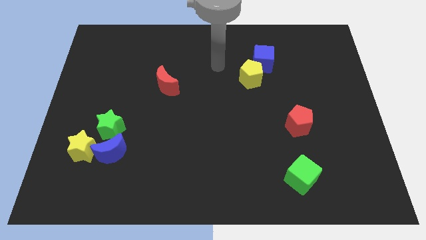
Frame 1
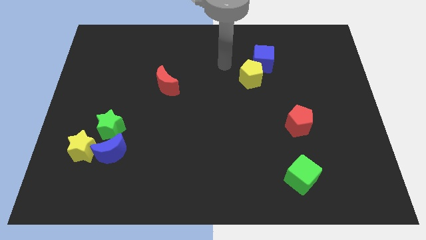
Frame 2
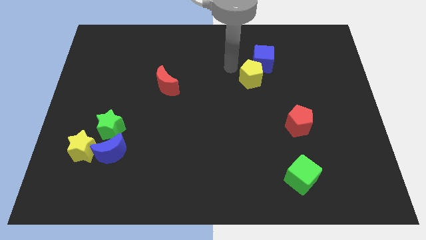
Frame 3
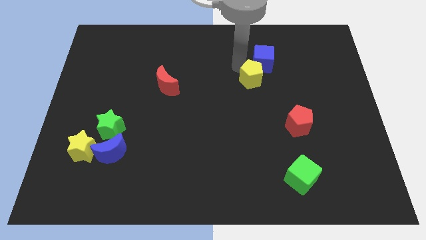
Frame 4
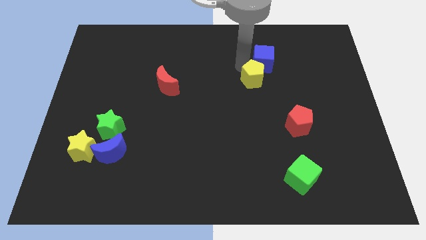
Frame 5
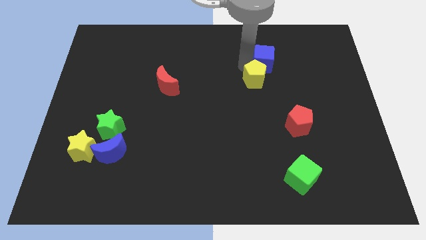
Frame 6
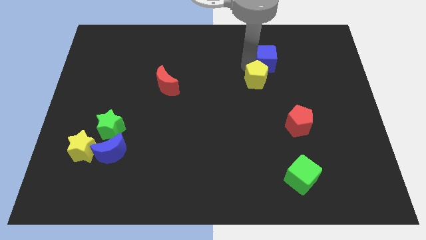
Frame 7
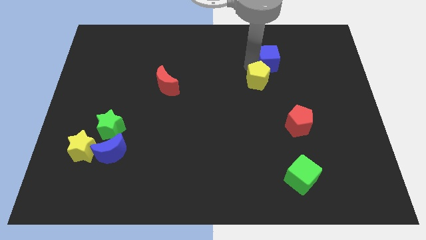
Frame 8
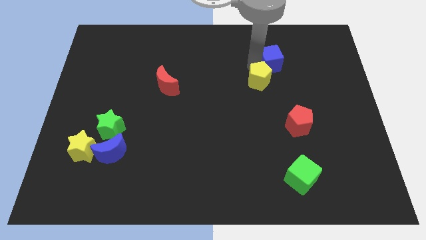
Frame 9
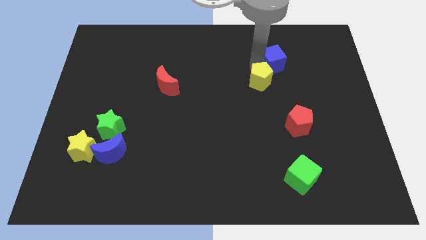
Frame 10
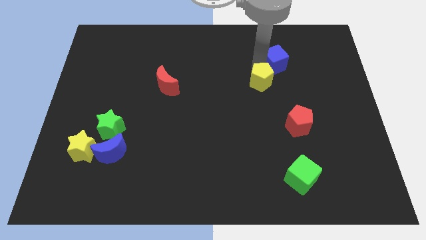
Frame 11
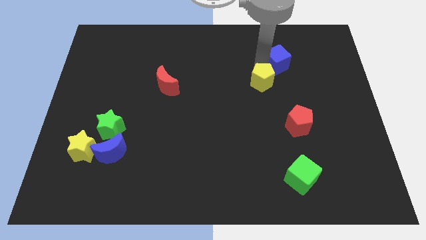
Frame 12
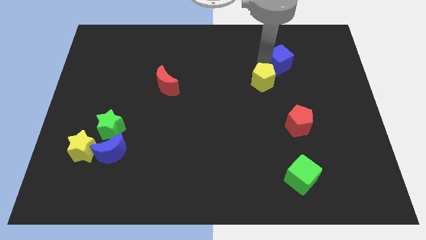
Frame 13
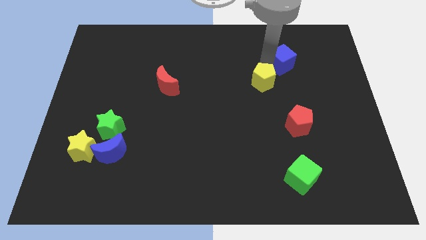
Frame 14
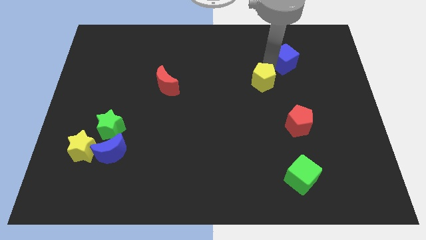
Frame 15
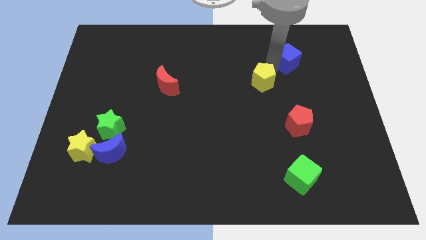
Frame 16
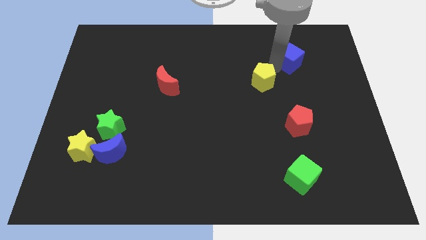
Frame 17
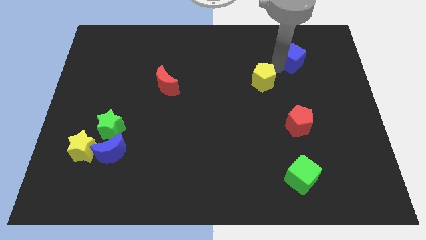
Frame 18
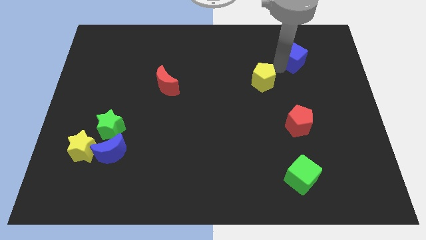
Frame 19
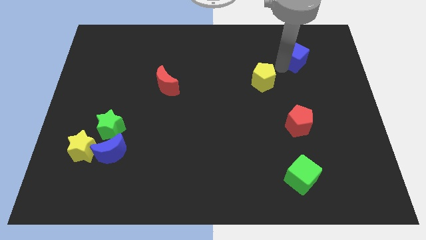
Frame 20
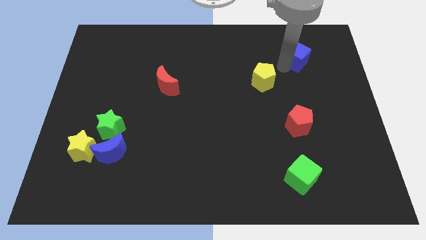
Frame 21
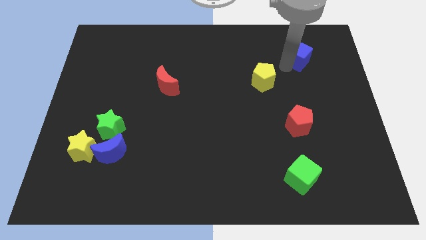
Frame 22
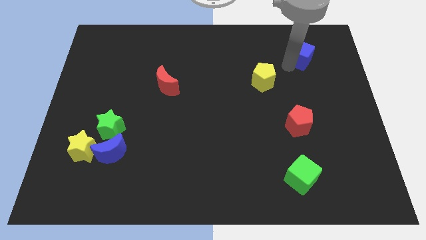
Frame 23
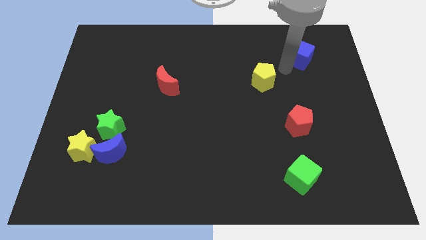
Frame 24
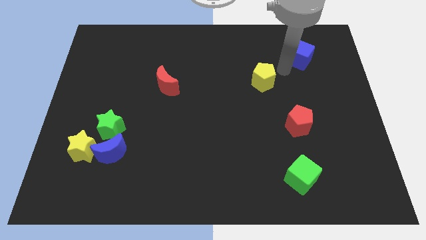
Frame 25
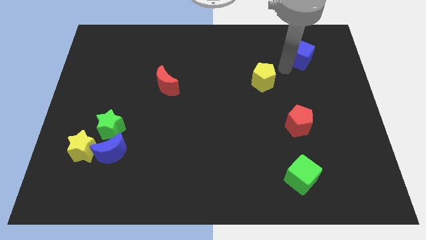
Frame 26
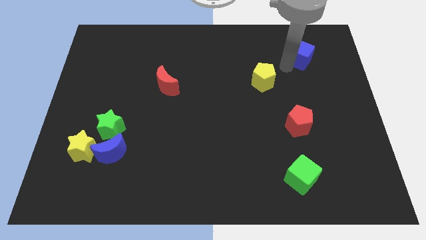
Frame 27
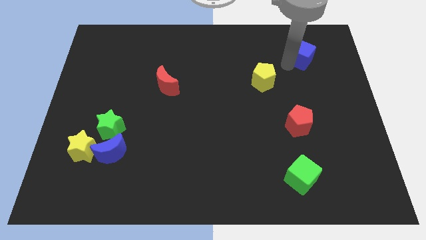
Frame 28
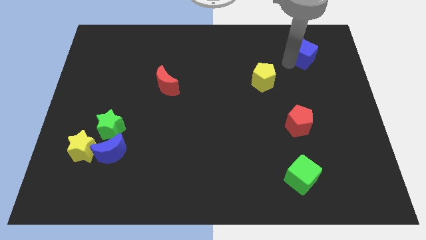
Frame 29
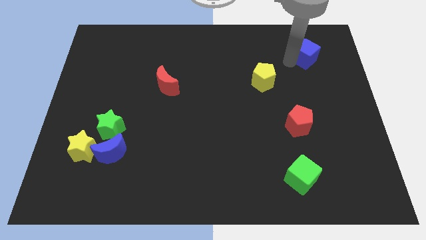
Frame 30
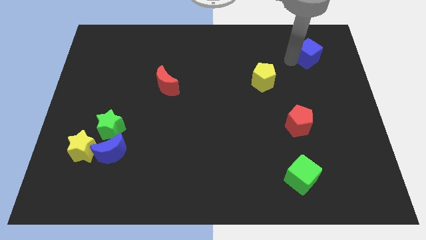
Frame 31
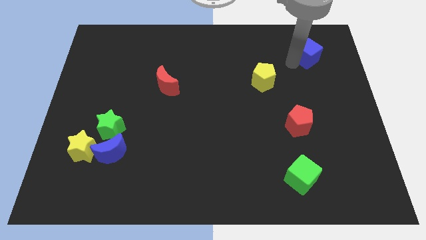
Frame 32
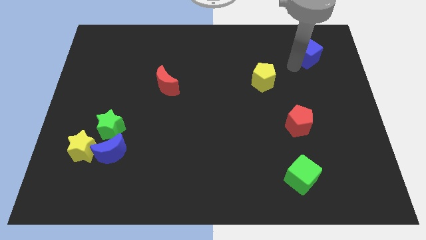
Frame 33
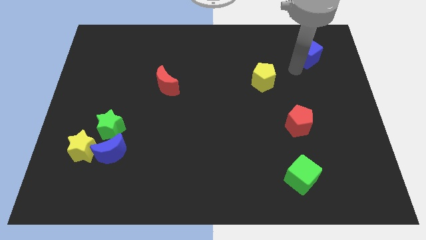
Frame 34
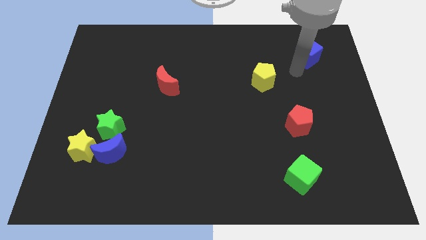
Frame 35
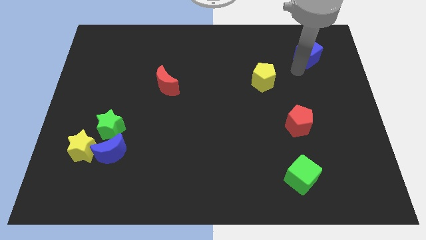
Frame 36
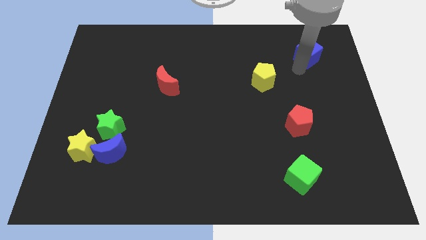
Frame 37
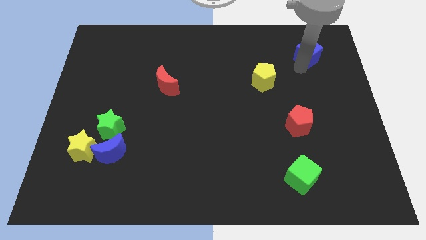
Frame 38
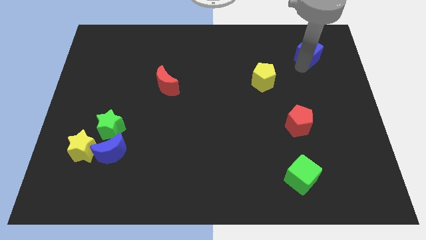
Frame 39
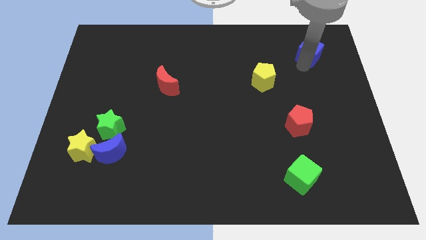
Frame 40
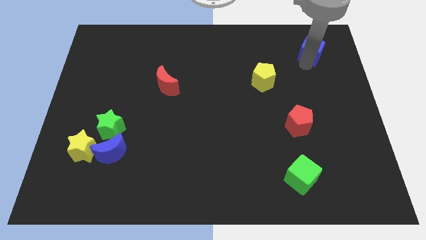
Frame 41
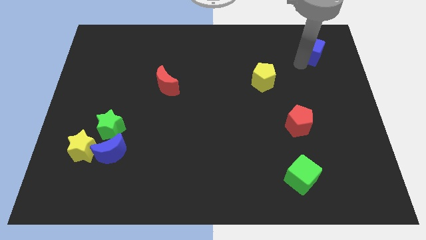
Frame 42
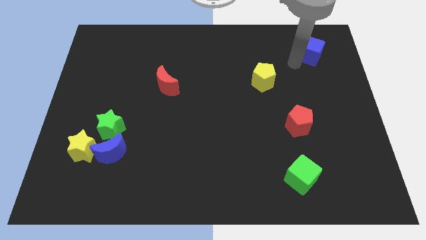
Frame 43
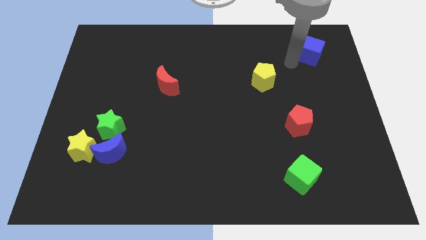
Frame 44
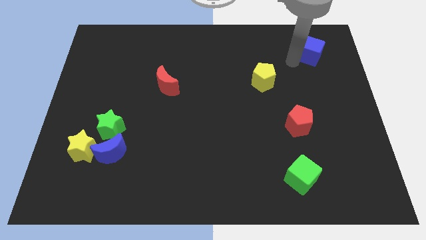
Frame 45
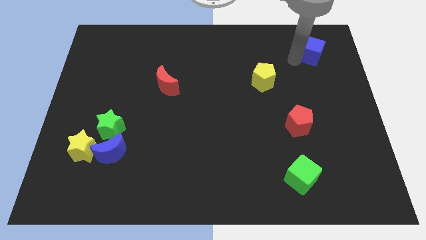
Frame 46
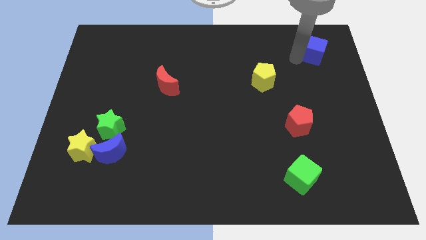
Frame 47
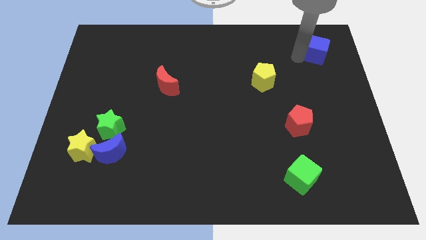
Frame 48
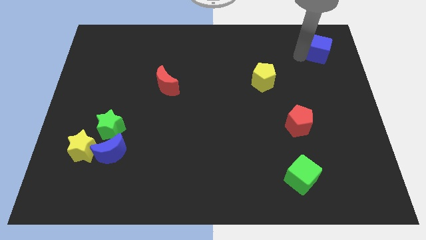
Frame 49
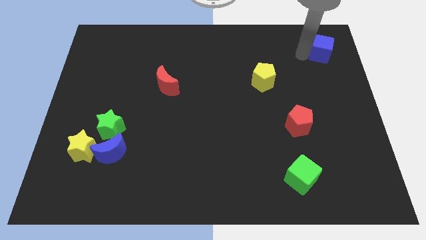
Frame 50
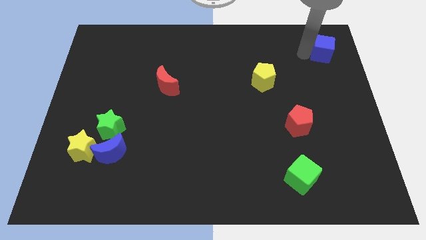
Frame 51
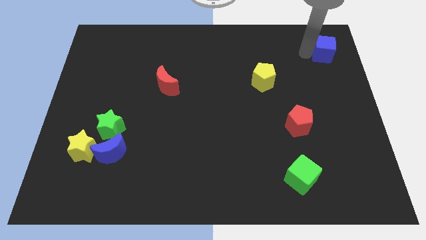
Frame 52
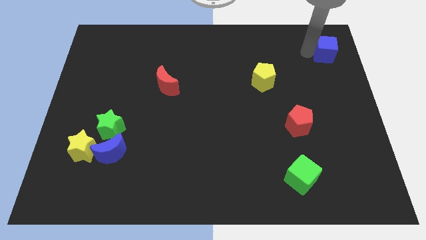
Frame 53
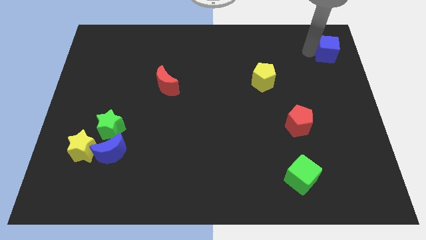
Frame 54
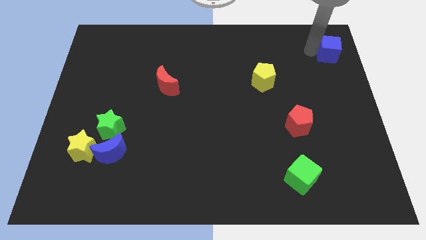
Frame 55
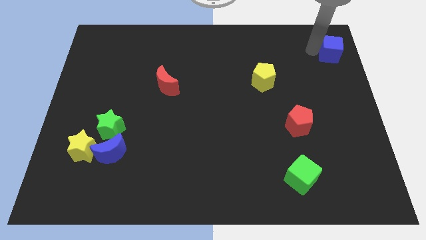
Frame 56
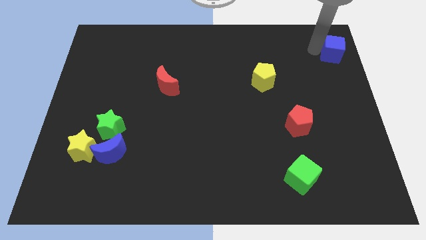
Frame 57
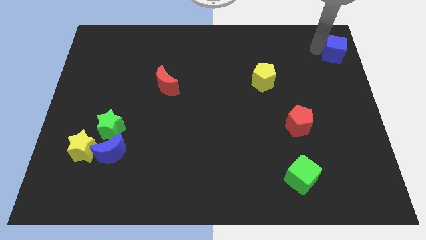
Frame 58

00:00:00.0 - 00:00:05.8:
put the blue cube to the upper right corner
